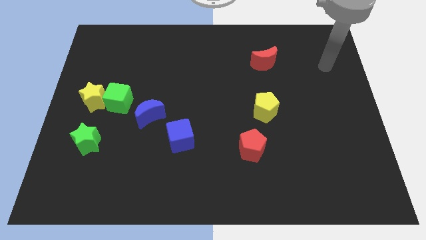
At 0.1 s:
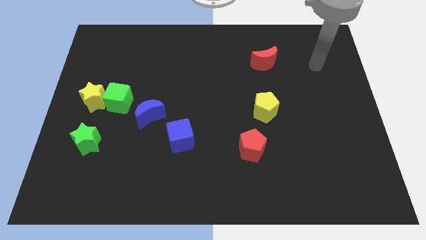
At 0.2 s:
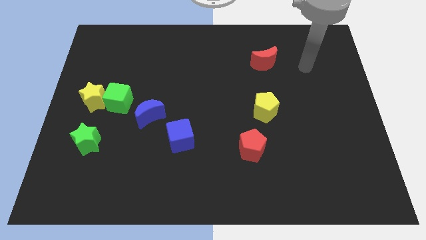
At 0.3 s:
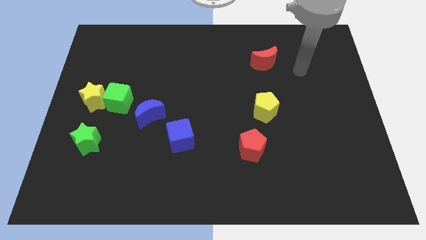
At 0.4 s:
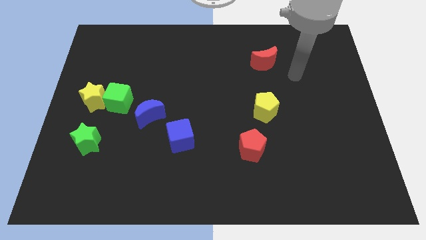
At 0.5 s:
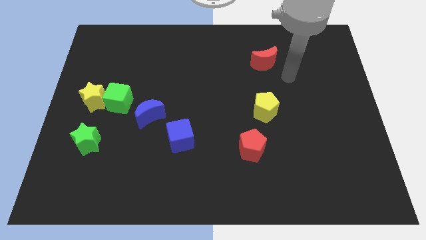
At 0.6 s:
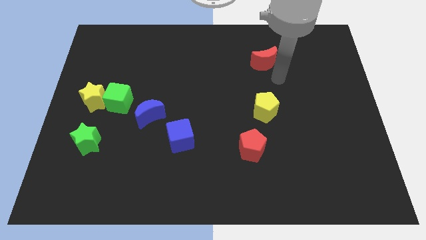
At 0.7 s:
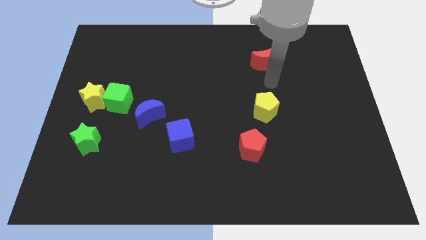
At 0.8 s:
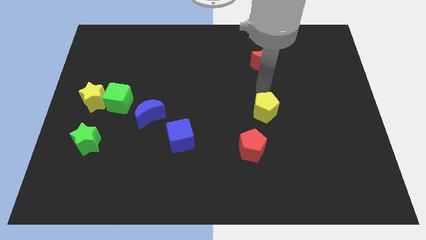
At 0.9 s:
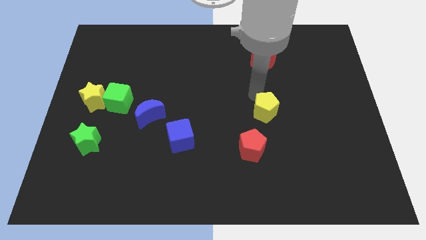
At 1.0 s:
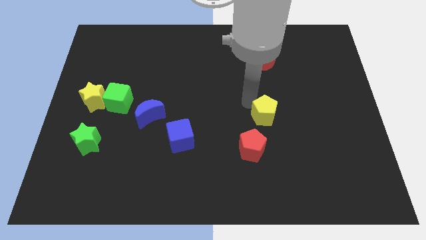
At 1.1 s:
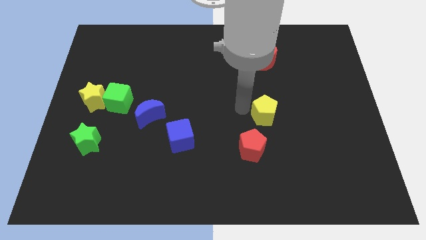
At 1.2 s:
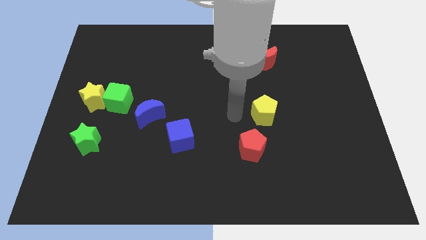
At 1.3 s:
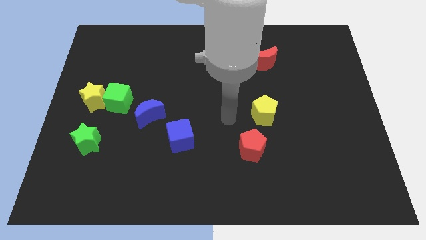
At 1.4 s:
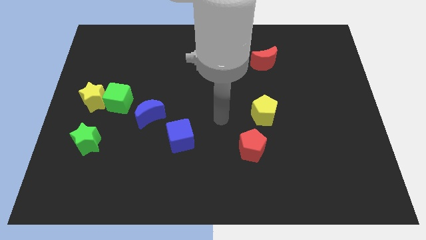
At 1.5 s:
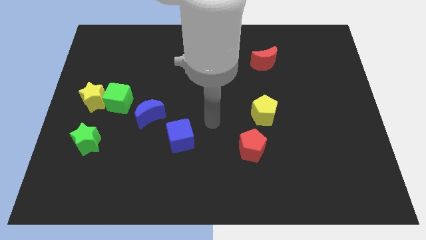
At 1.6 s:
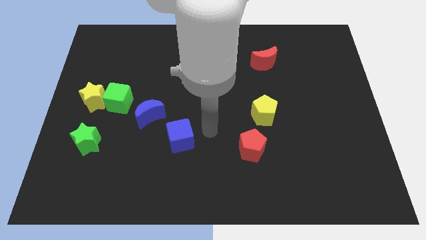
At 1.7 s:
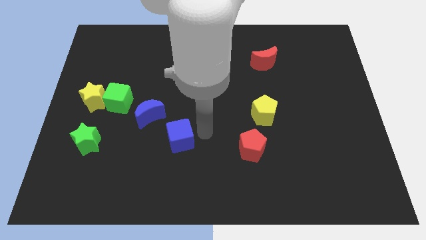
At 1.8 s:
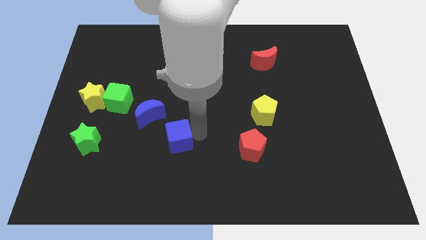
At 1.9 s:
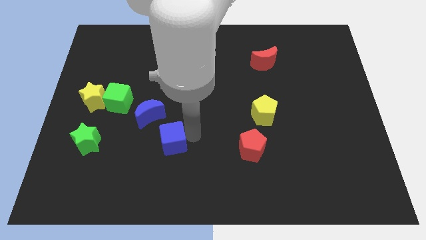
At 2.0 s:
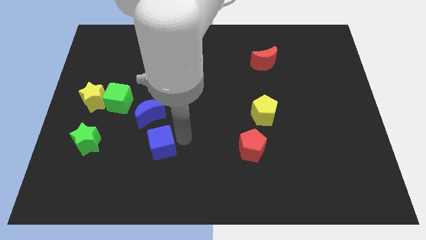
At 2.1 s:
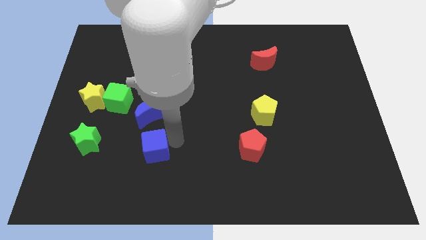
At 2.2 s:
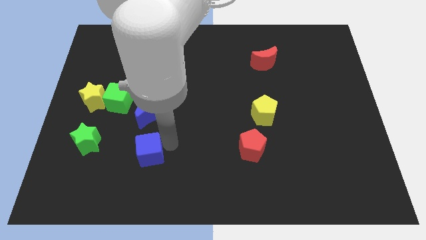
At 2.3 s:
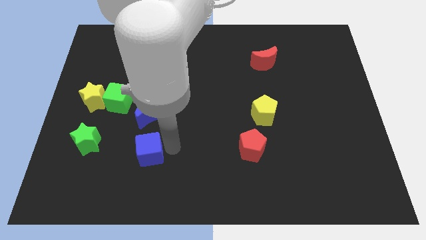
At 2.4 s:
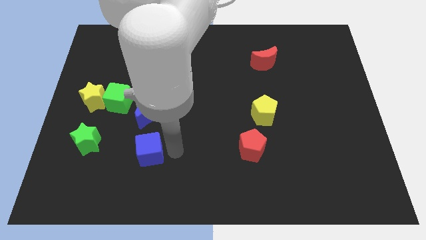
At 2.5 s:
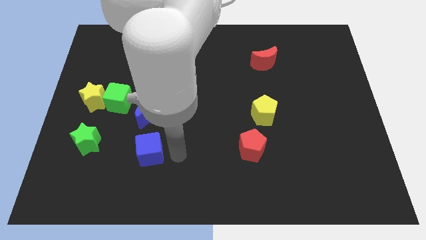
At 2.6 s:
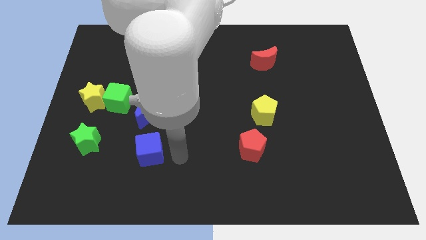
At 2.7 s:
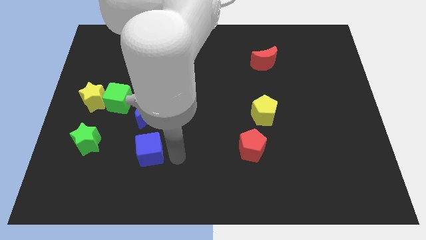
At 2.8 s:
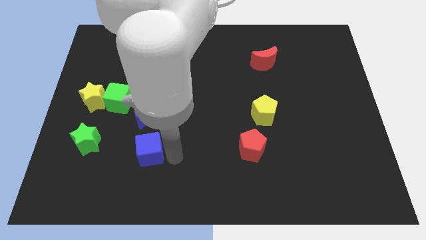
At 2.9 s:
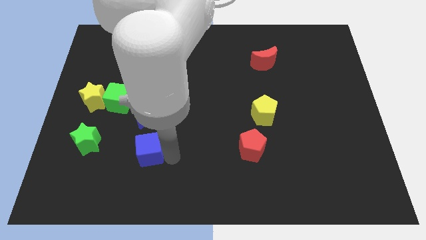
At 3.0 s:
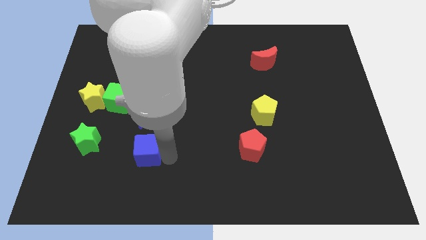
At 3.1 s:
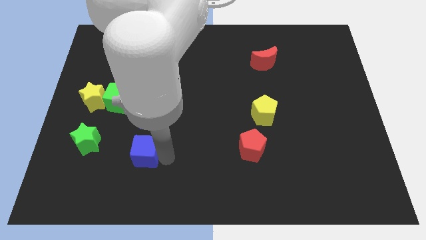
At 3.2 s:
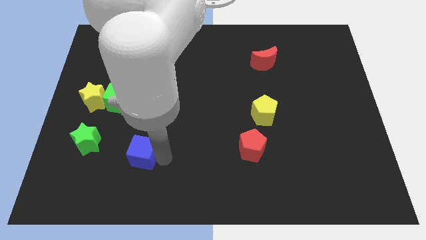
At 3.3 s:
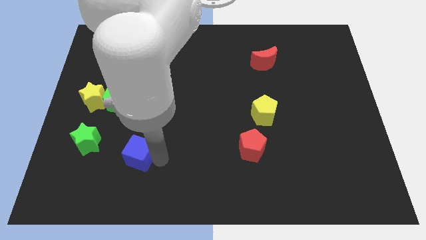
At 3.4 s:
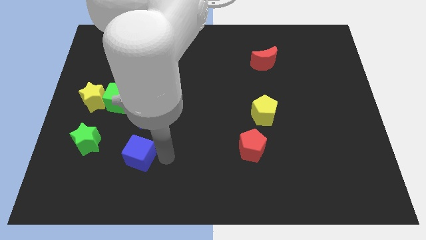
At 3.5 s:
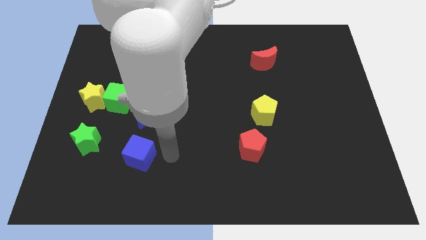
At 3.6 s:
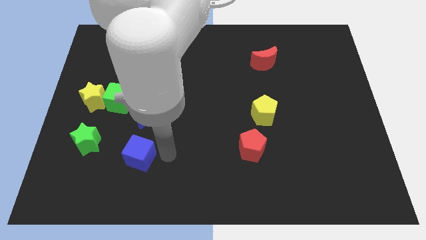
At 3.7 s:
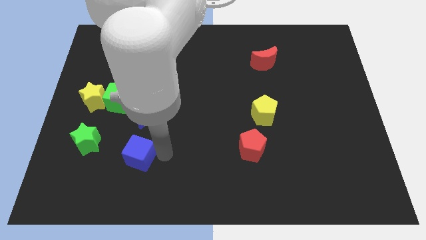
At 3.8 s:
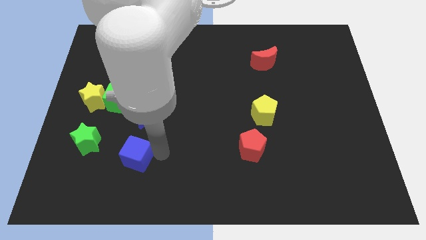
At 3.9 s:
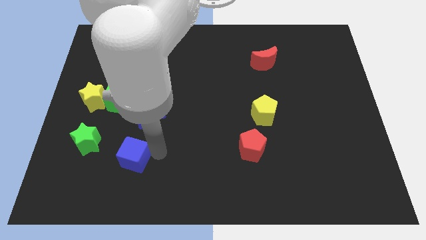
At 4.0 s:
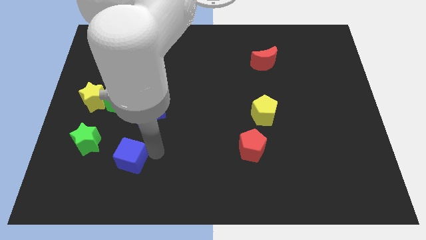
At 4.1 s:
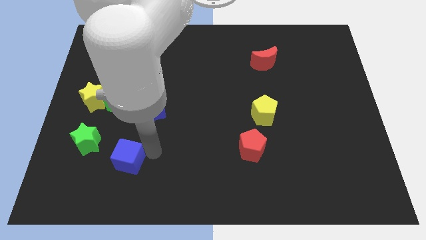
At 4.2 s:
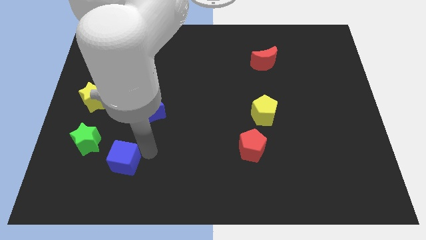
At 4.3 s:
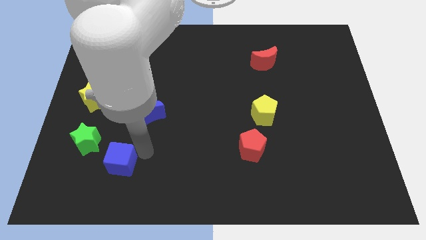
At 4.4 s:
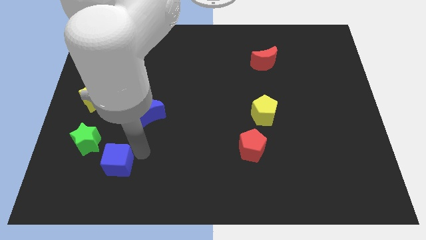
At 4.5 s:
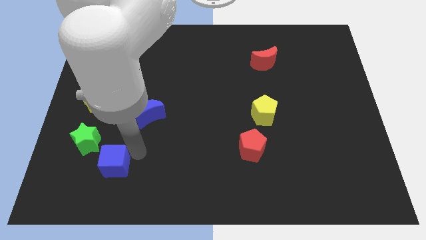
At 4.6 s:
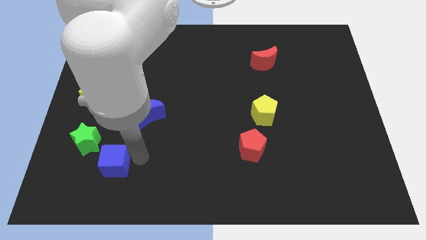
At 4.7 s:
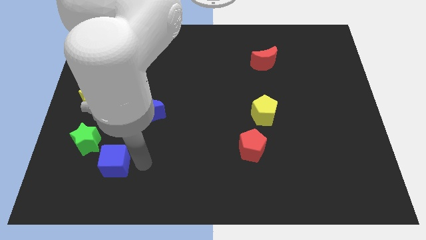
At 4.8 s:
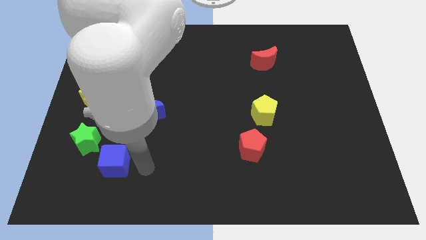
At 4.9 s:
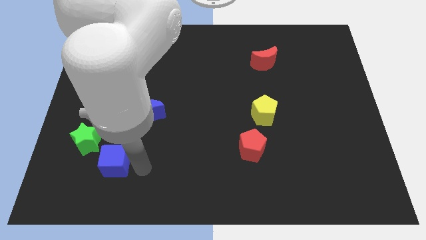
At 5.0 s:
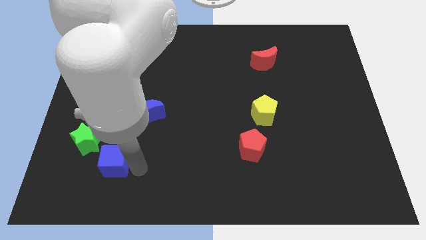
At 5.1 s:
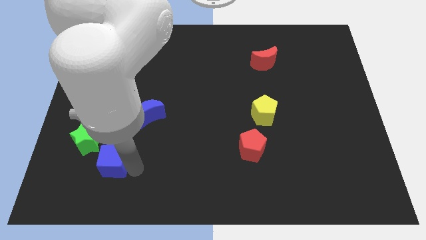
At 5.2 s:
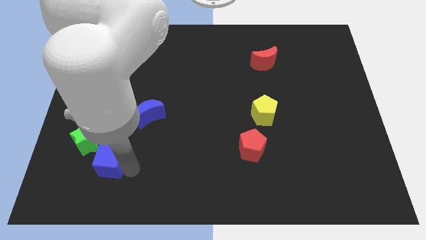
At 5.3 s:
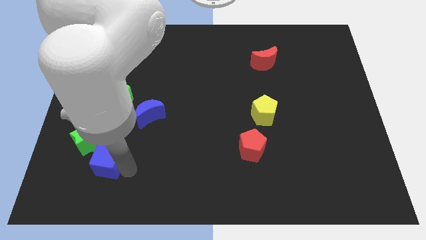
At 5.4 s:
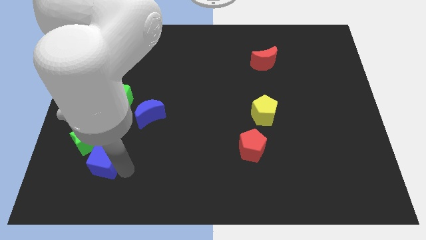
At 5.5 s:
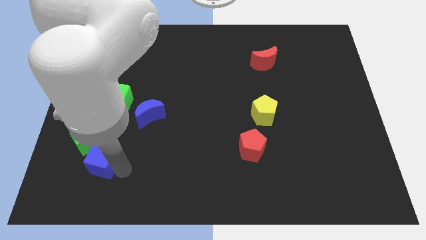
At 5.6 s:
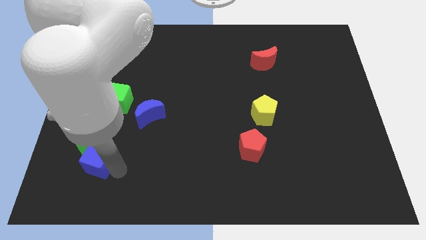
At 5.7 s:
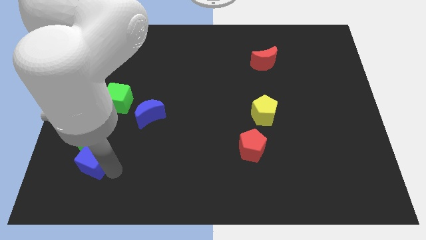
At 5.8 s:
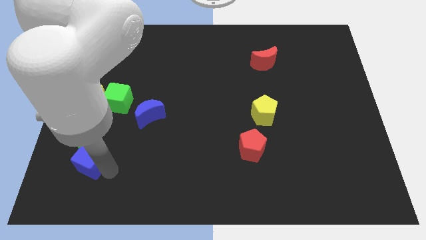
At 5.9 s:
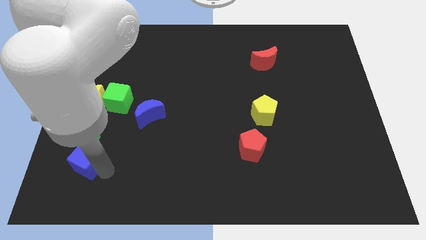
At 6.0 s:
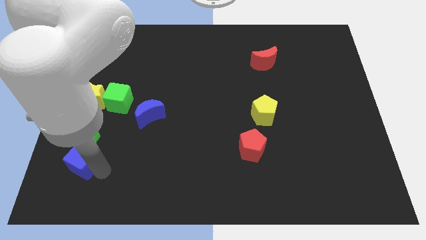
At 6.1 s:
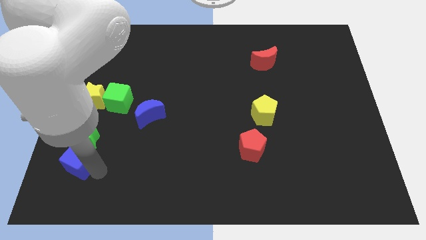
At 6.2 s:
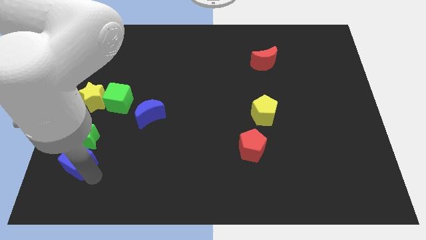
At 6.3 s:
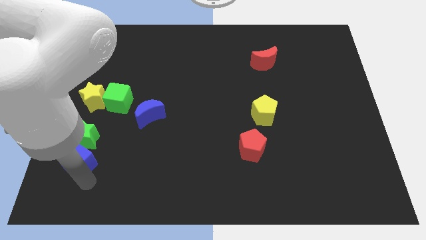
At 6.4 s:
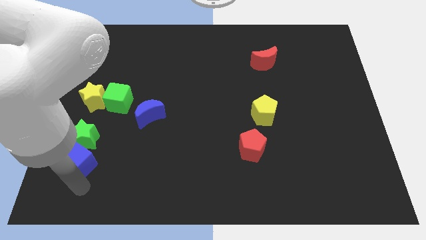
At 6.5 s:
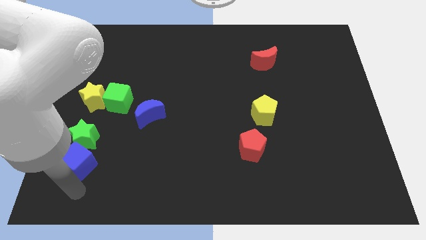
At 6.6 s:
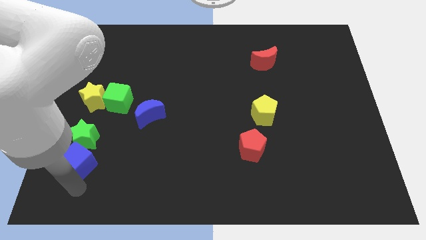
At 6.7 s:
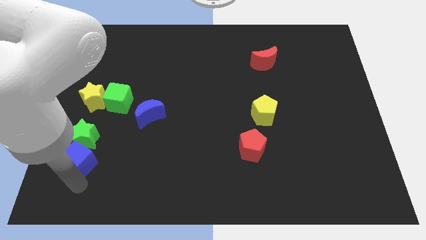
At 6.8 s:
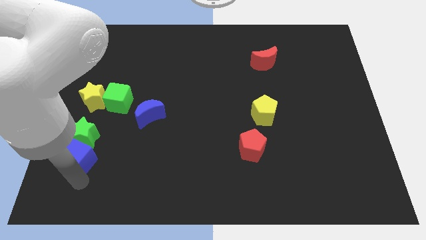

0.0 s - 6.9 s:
put the blue cube to the bottom side of the yellow star
